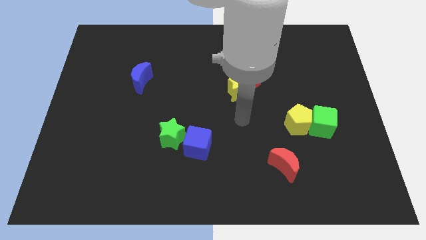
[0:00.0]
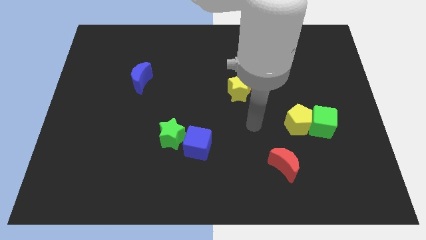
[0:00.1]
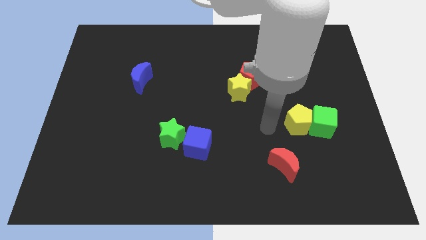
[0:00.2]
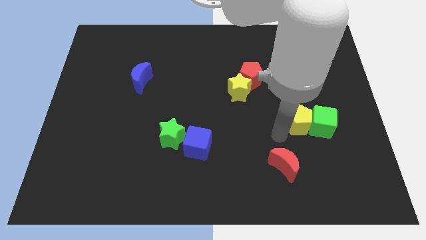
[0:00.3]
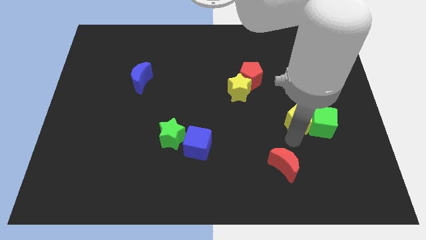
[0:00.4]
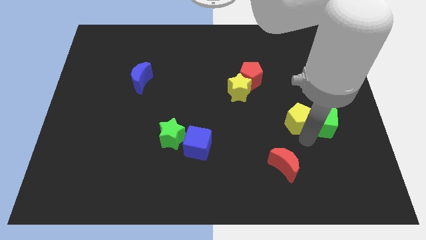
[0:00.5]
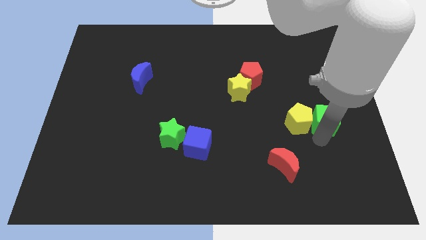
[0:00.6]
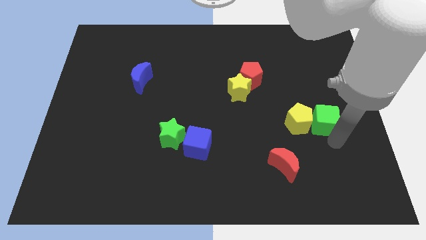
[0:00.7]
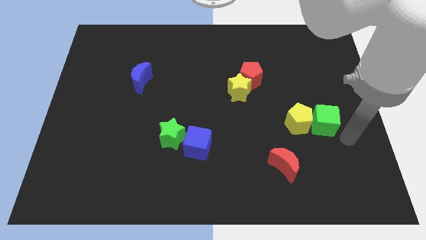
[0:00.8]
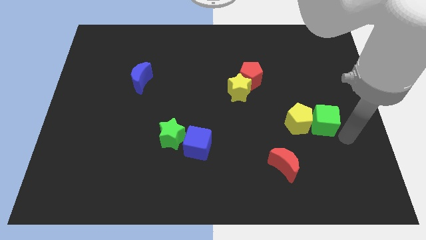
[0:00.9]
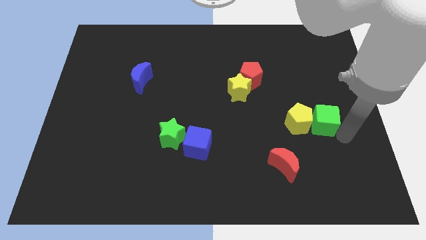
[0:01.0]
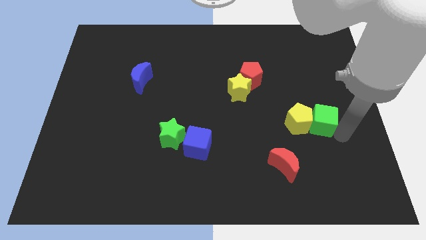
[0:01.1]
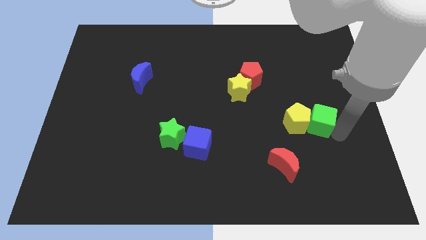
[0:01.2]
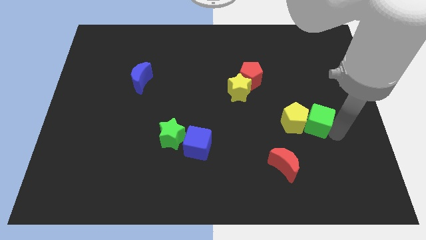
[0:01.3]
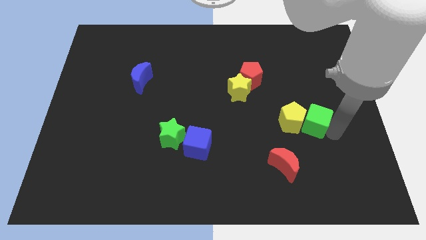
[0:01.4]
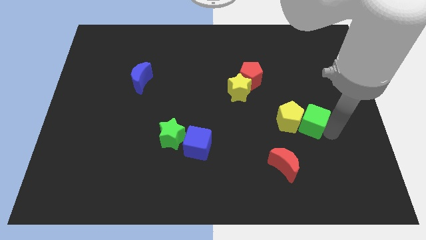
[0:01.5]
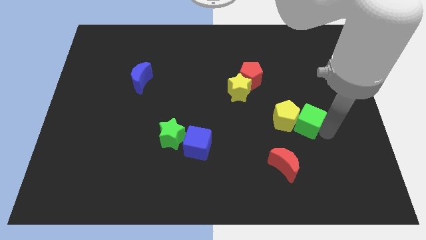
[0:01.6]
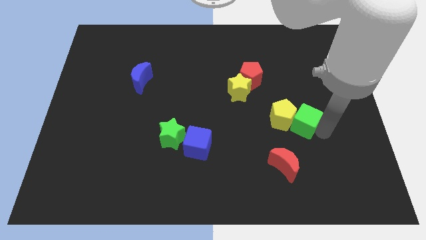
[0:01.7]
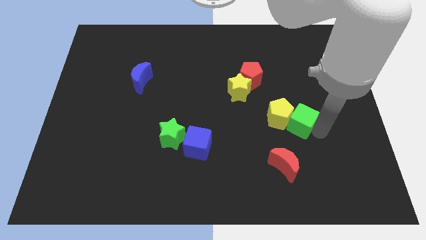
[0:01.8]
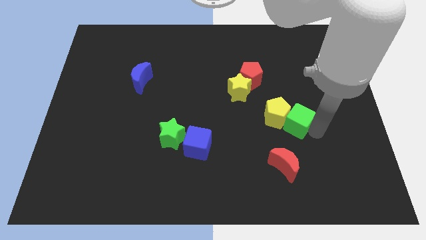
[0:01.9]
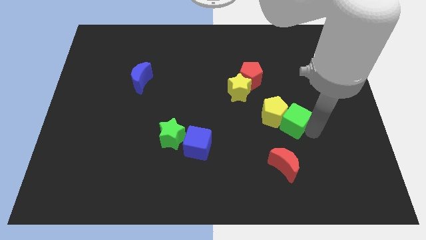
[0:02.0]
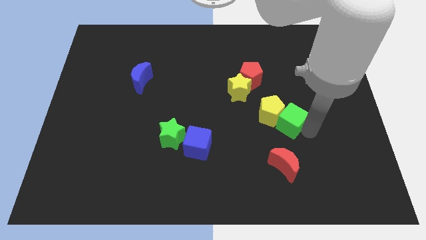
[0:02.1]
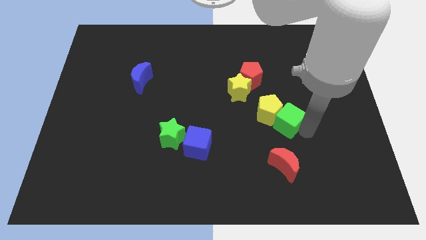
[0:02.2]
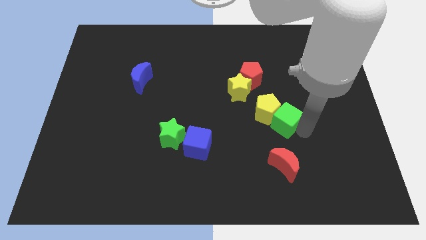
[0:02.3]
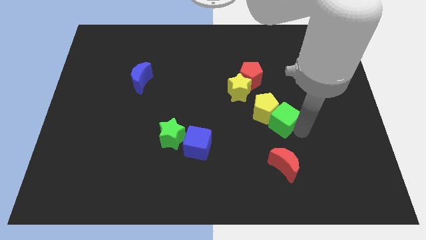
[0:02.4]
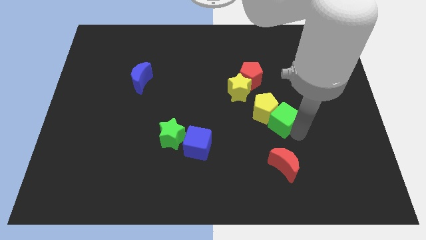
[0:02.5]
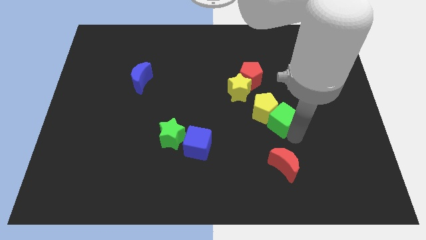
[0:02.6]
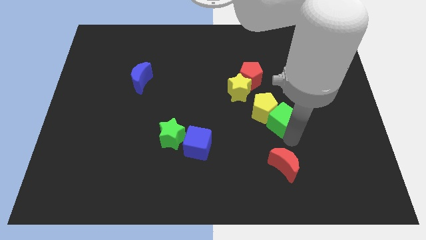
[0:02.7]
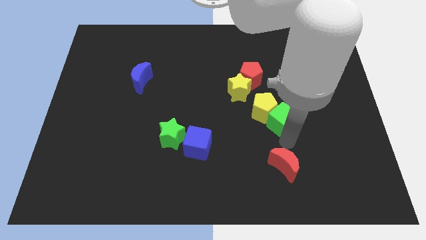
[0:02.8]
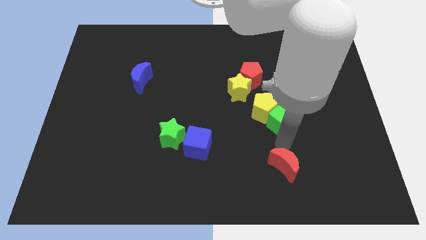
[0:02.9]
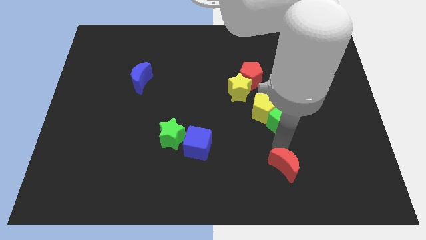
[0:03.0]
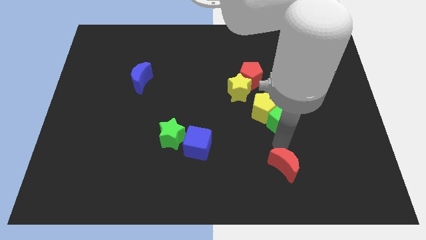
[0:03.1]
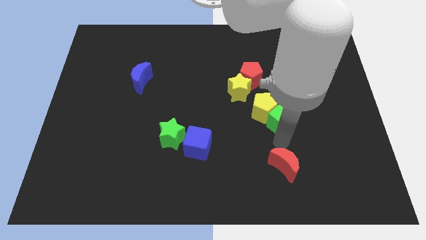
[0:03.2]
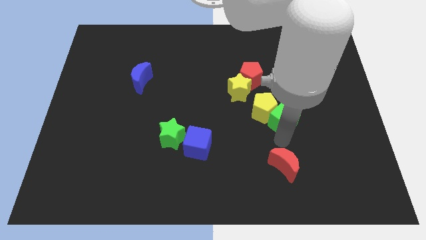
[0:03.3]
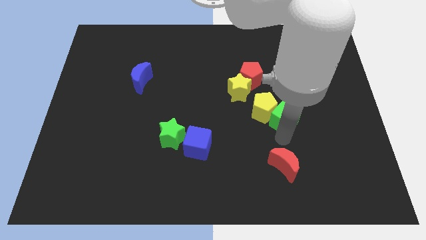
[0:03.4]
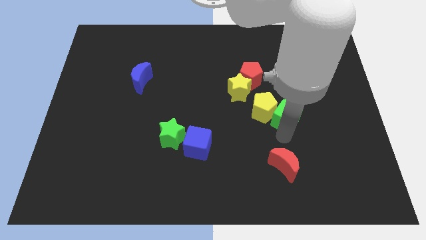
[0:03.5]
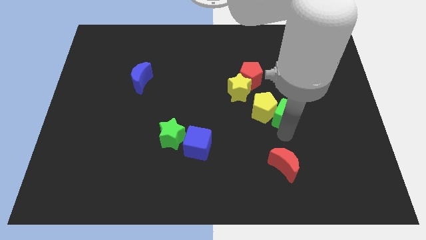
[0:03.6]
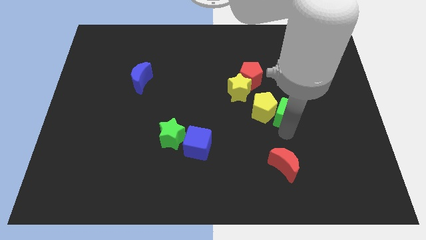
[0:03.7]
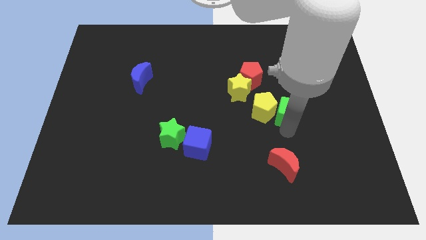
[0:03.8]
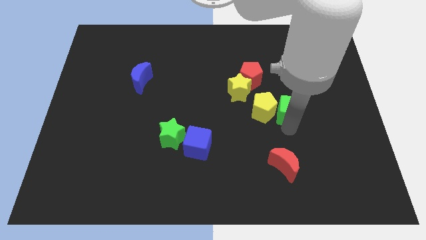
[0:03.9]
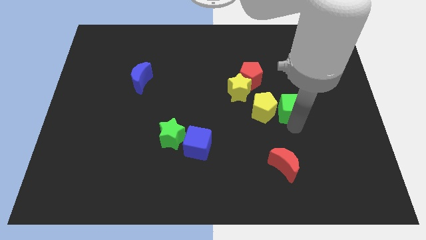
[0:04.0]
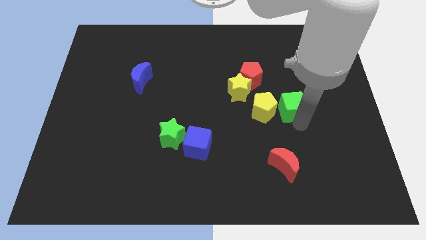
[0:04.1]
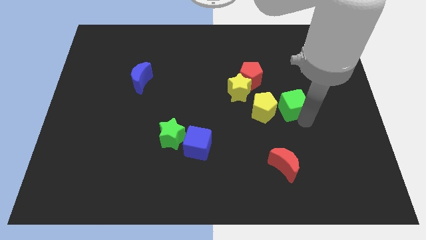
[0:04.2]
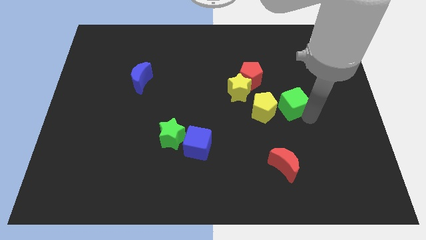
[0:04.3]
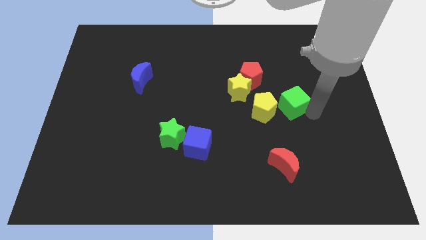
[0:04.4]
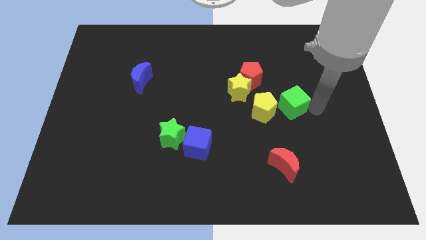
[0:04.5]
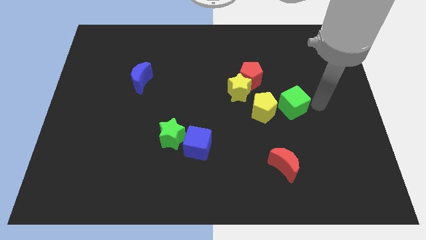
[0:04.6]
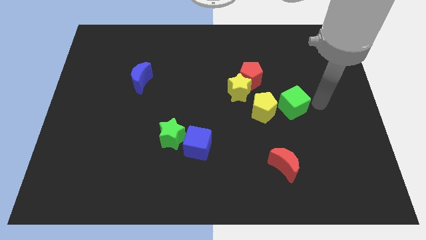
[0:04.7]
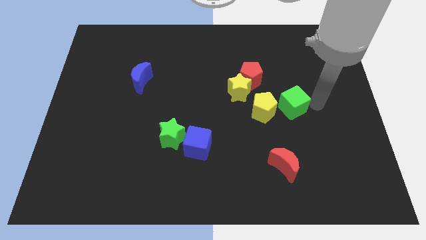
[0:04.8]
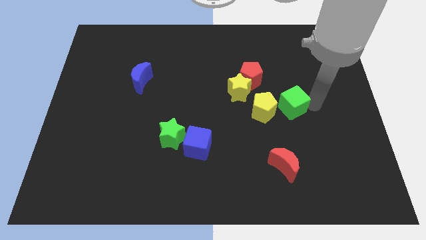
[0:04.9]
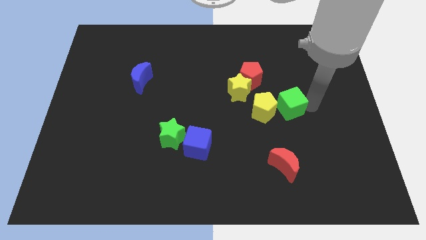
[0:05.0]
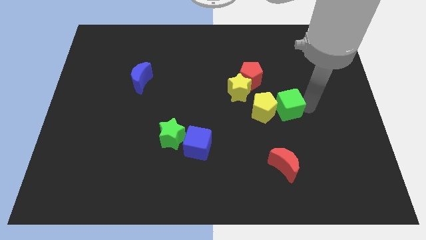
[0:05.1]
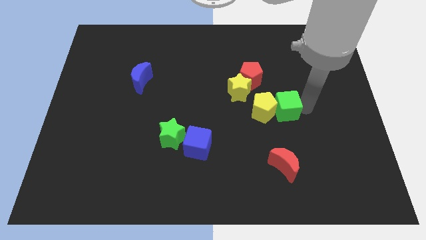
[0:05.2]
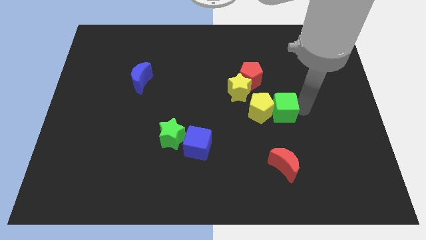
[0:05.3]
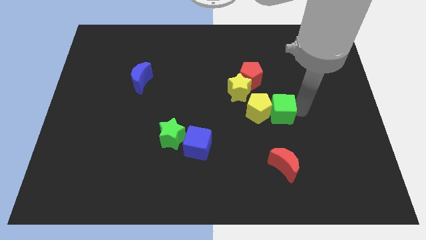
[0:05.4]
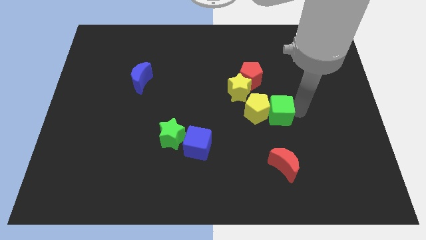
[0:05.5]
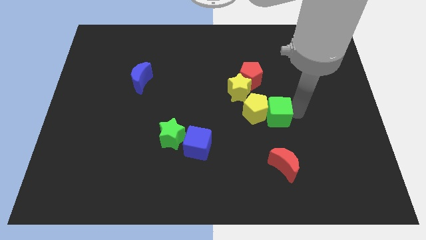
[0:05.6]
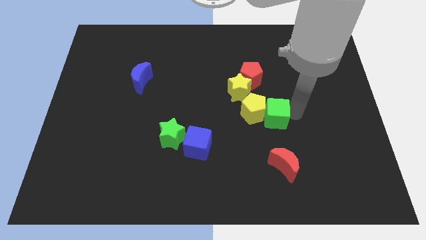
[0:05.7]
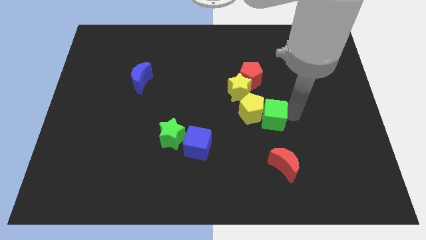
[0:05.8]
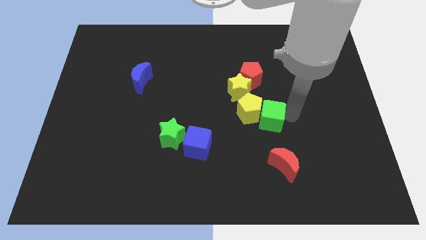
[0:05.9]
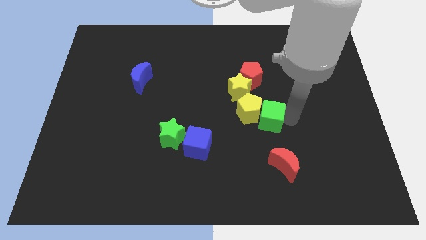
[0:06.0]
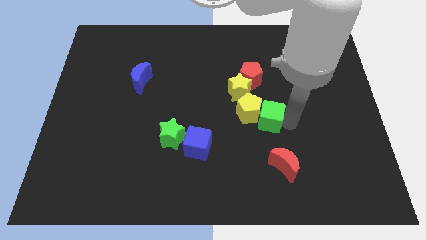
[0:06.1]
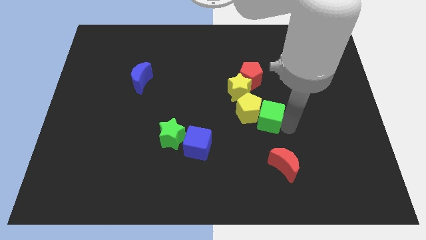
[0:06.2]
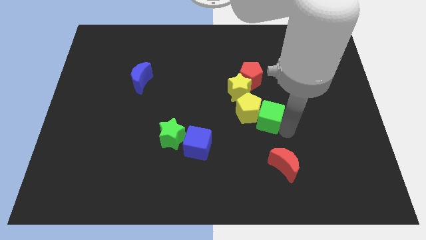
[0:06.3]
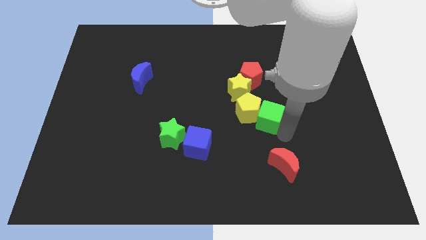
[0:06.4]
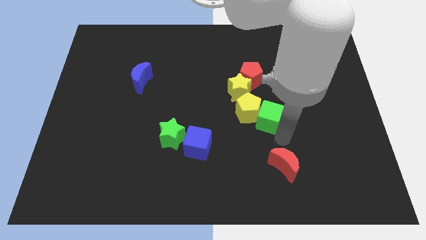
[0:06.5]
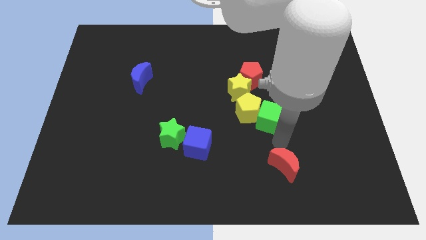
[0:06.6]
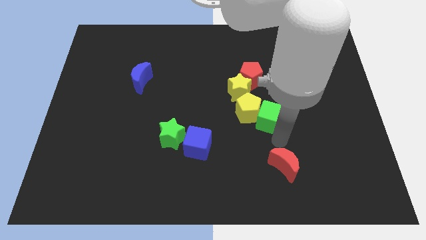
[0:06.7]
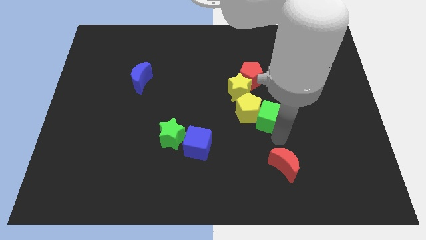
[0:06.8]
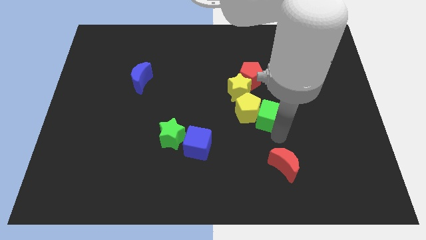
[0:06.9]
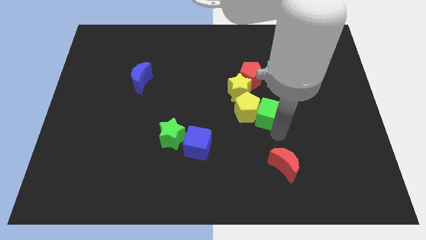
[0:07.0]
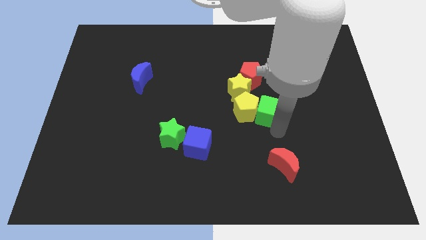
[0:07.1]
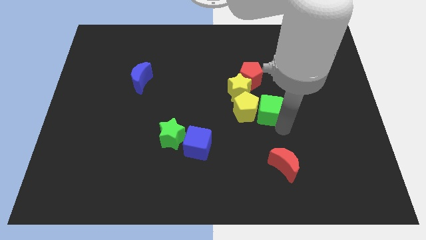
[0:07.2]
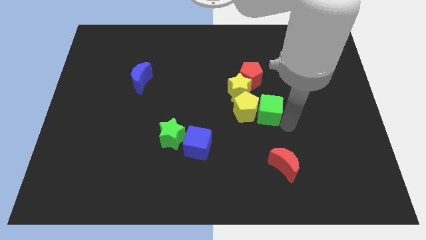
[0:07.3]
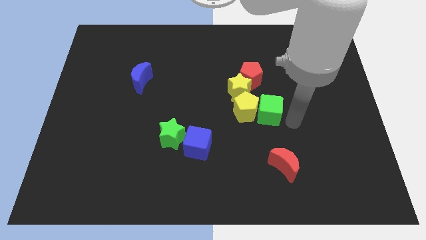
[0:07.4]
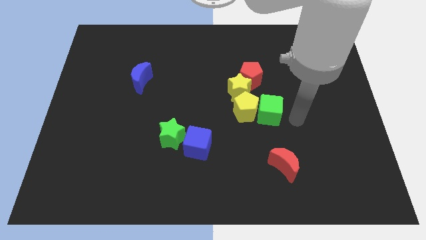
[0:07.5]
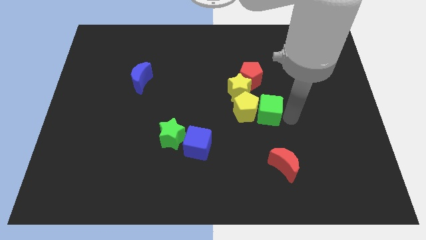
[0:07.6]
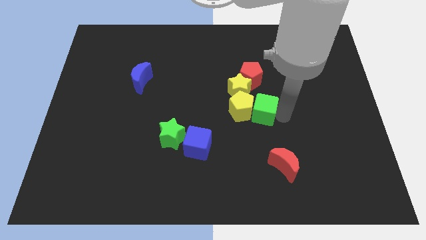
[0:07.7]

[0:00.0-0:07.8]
push the green cube to the middle of the board

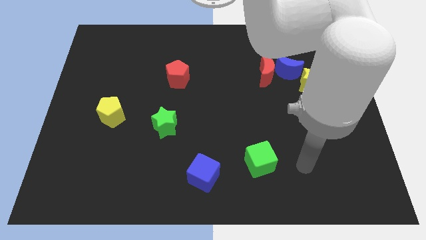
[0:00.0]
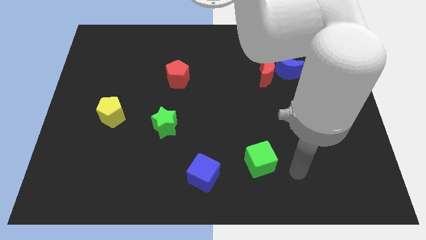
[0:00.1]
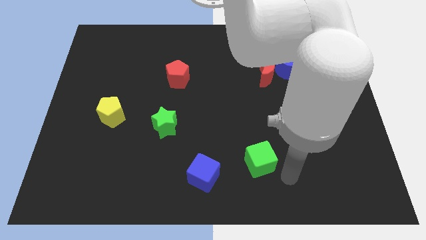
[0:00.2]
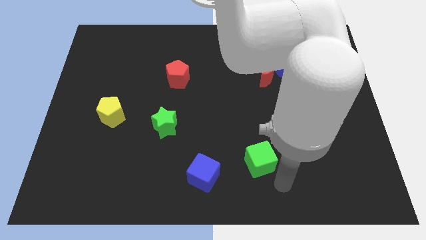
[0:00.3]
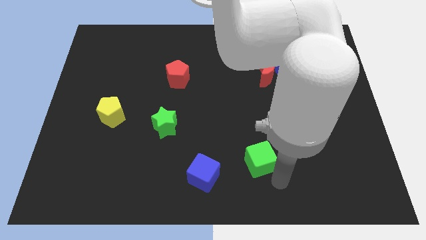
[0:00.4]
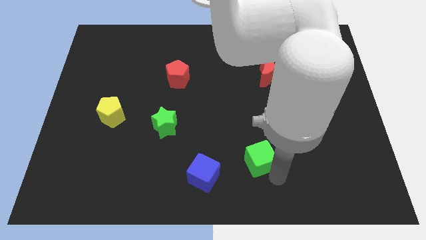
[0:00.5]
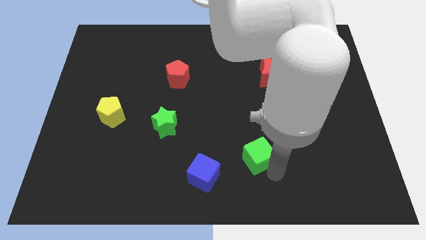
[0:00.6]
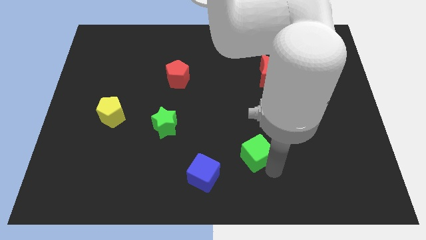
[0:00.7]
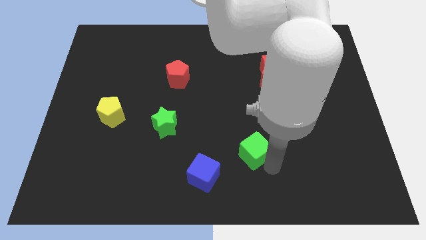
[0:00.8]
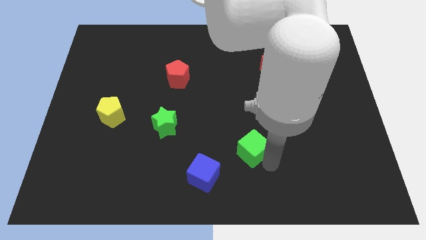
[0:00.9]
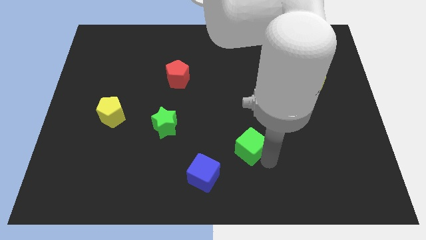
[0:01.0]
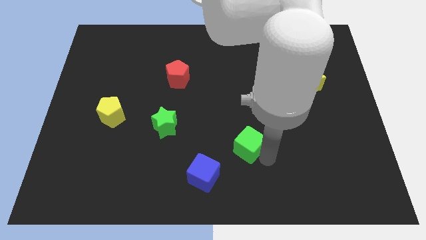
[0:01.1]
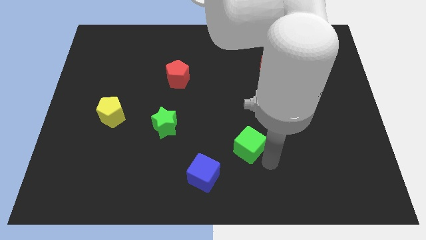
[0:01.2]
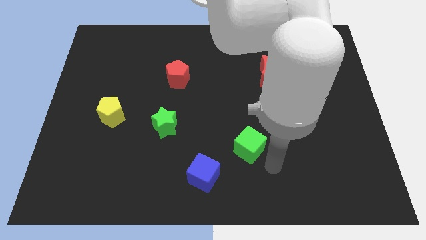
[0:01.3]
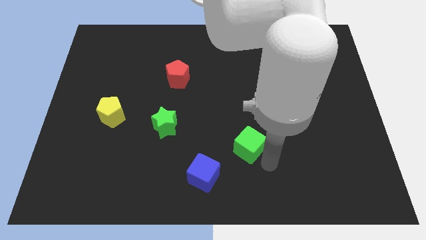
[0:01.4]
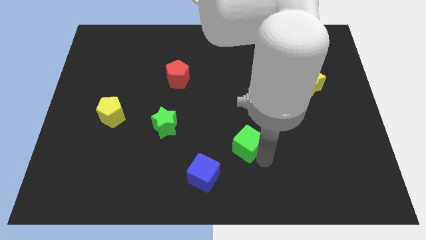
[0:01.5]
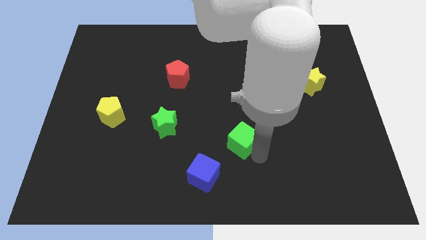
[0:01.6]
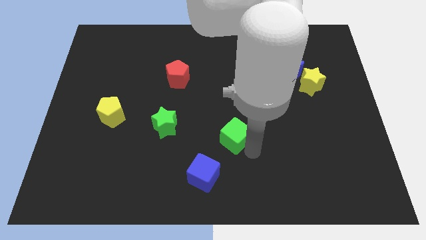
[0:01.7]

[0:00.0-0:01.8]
push the green cube to the center of the board
